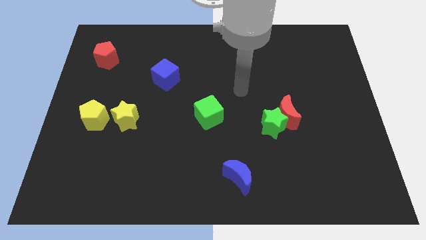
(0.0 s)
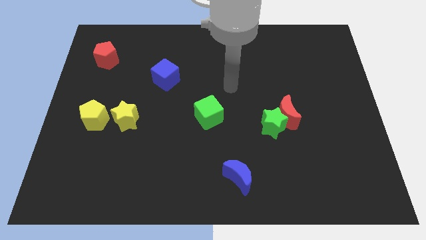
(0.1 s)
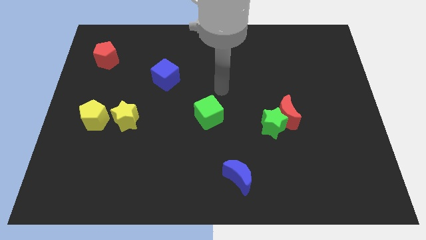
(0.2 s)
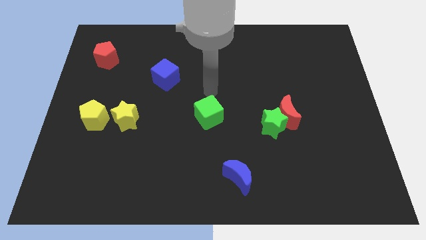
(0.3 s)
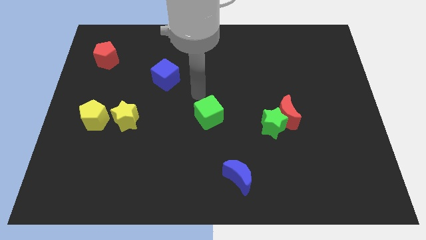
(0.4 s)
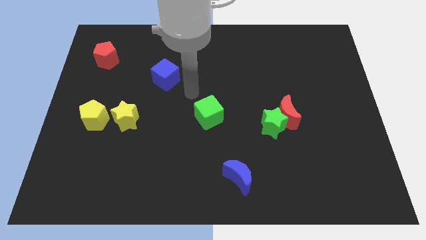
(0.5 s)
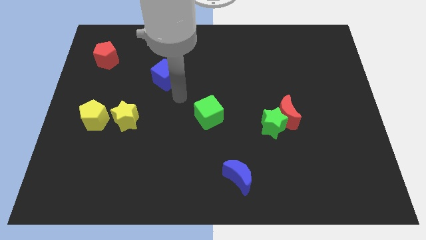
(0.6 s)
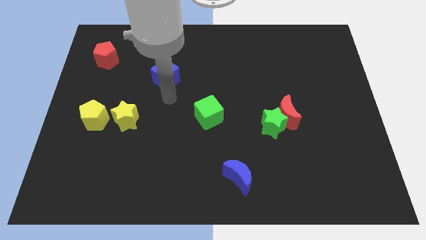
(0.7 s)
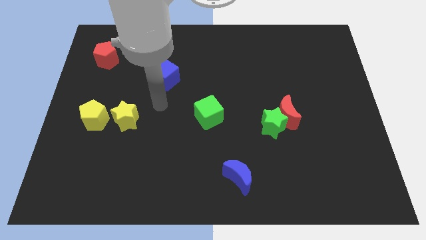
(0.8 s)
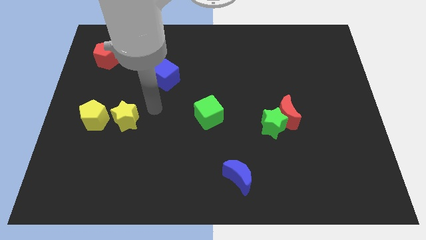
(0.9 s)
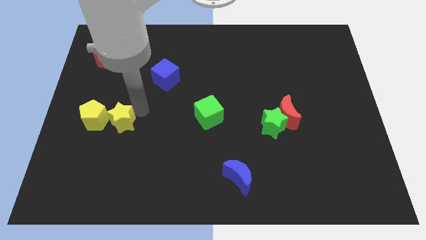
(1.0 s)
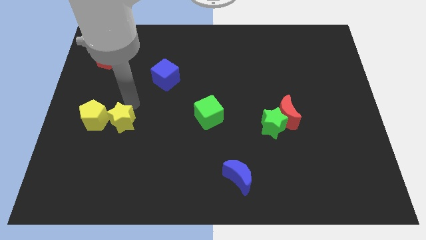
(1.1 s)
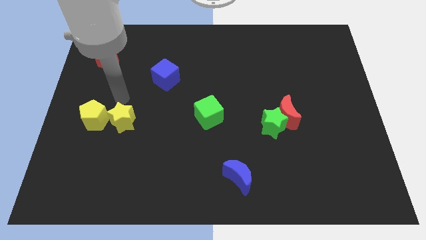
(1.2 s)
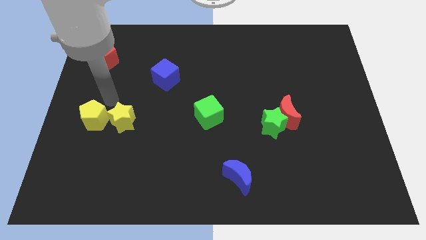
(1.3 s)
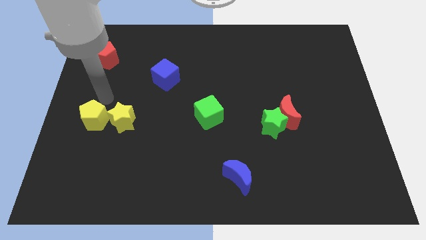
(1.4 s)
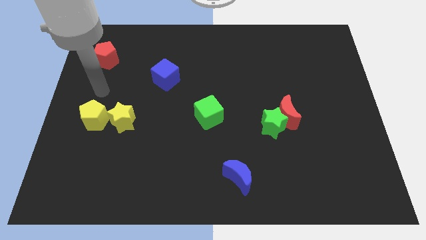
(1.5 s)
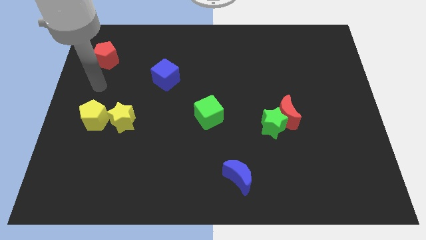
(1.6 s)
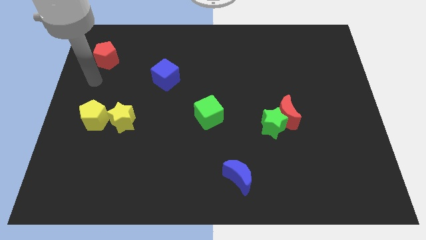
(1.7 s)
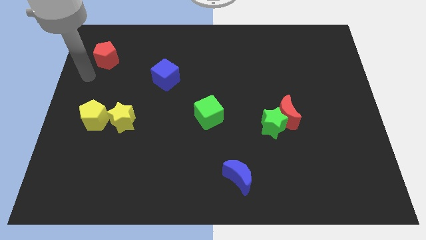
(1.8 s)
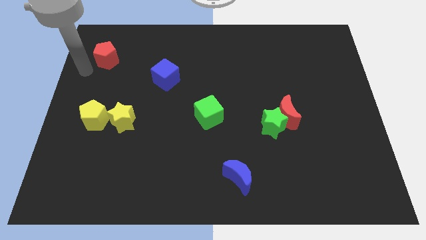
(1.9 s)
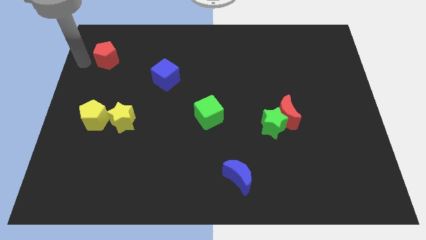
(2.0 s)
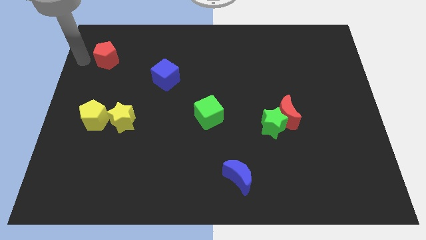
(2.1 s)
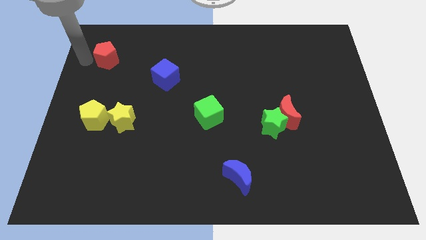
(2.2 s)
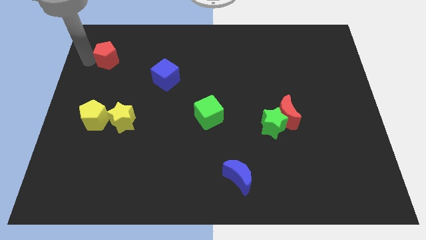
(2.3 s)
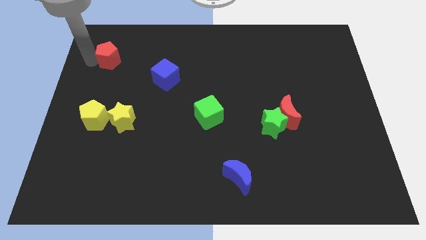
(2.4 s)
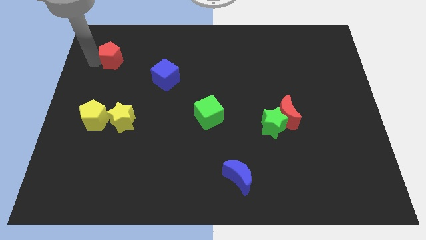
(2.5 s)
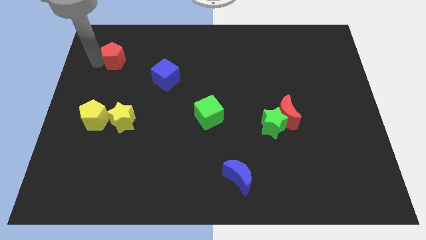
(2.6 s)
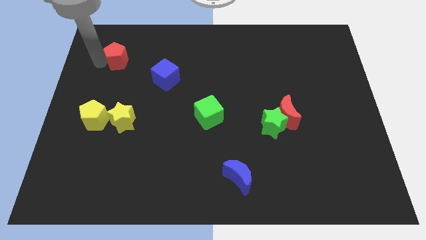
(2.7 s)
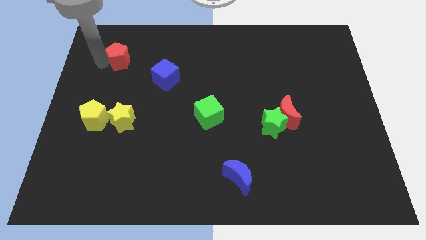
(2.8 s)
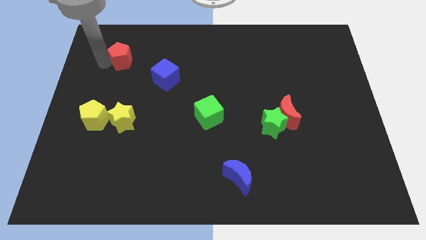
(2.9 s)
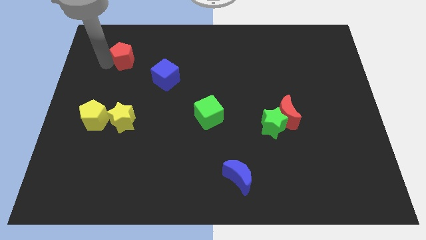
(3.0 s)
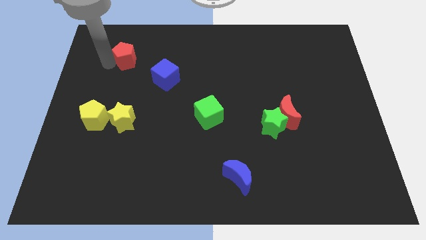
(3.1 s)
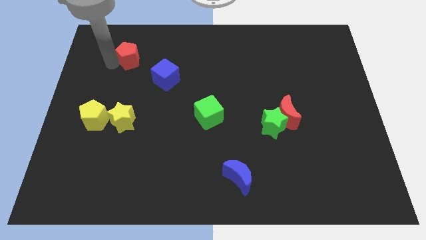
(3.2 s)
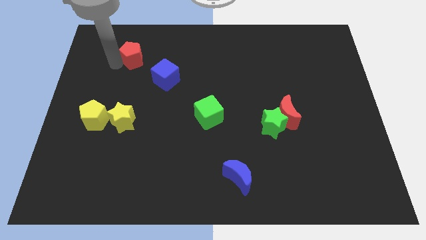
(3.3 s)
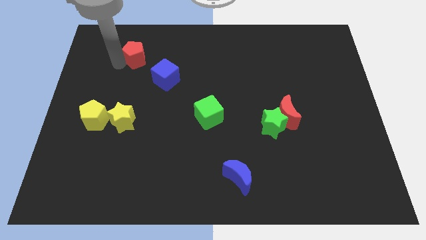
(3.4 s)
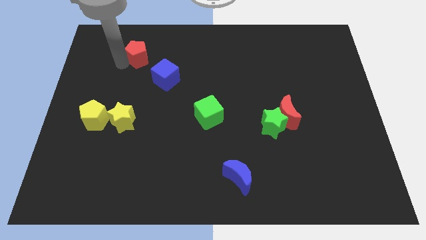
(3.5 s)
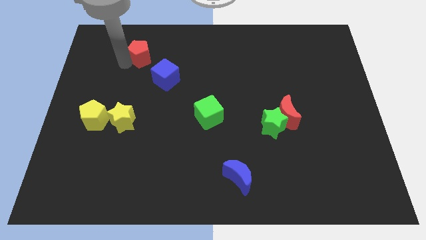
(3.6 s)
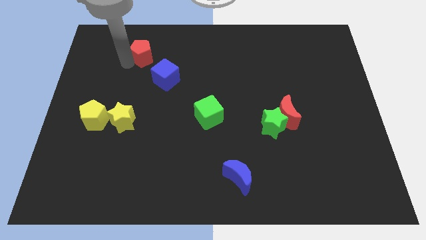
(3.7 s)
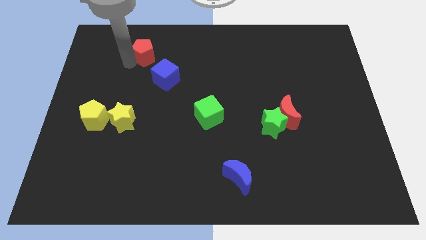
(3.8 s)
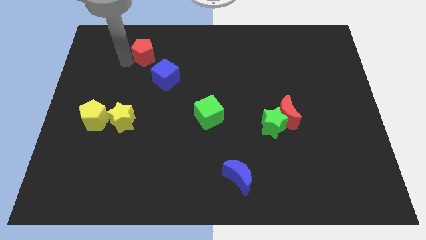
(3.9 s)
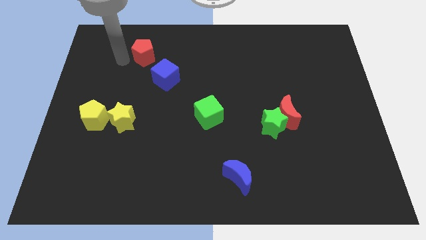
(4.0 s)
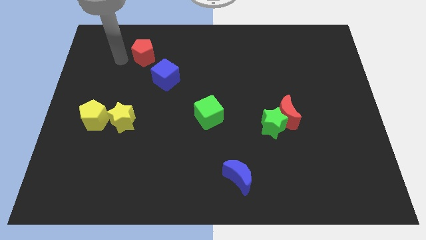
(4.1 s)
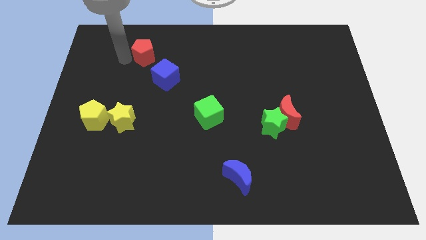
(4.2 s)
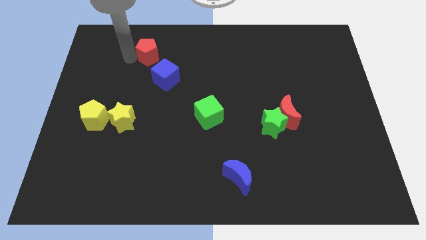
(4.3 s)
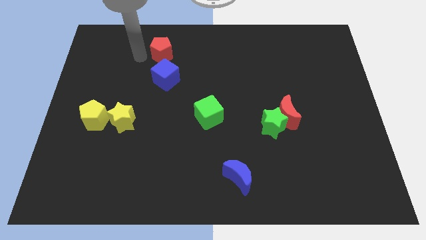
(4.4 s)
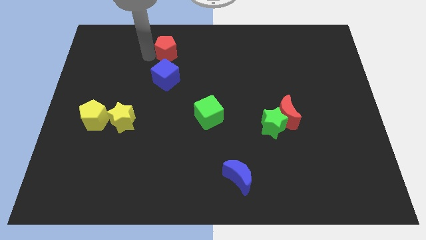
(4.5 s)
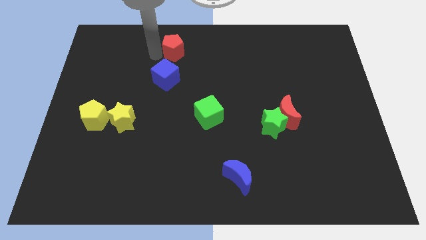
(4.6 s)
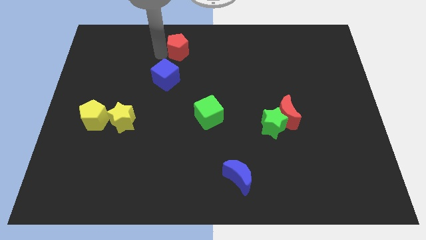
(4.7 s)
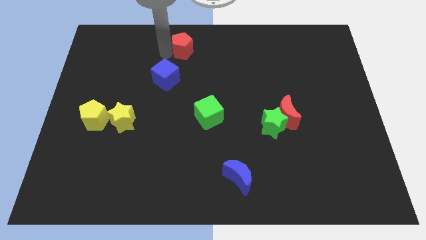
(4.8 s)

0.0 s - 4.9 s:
move the red pentagon to the towards your base

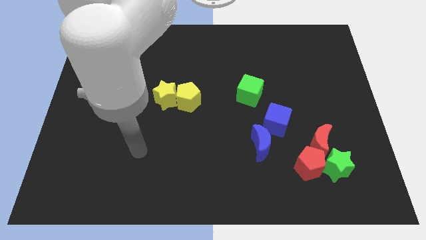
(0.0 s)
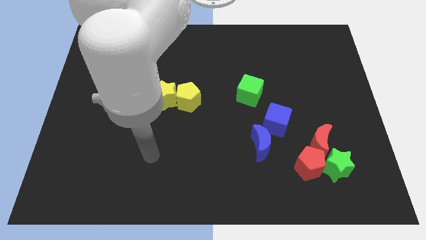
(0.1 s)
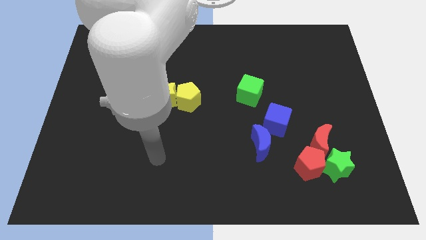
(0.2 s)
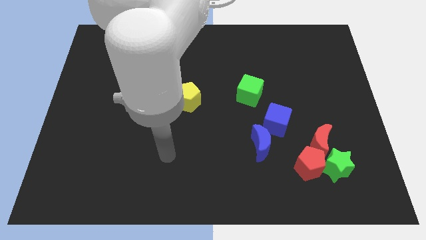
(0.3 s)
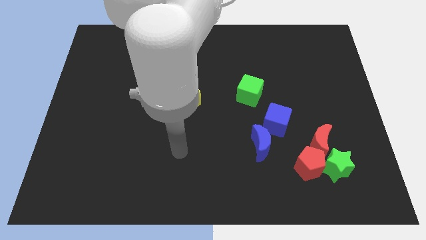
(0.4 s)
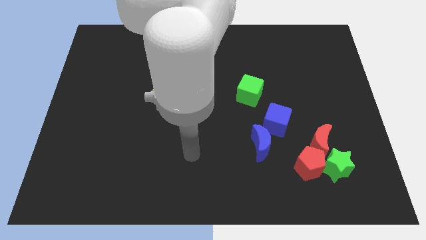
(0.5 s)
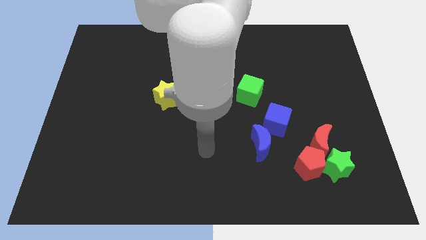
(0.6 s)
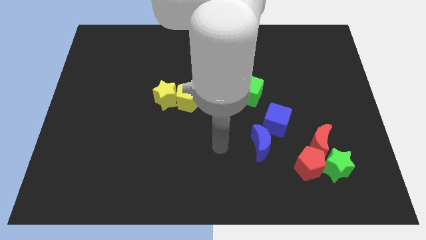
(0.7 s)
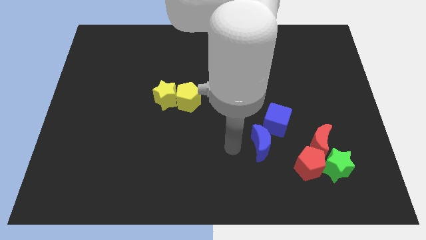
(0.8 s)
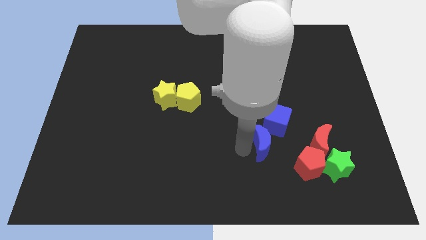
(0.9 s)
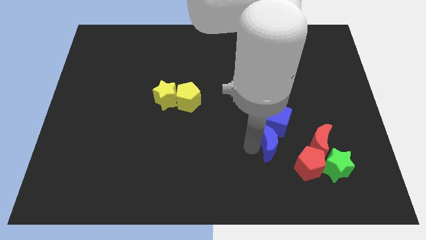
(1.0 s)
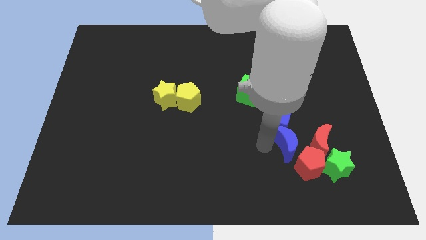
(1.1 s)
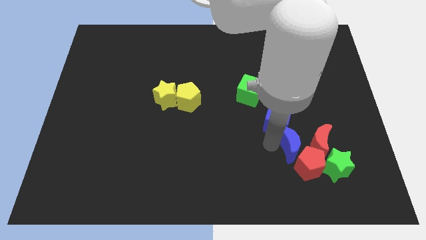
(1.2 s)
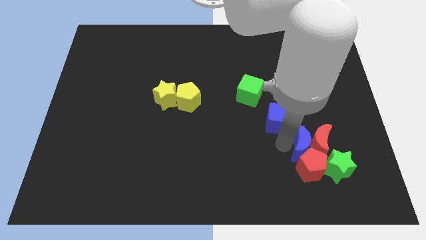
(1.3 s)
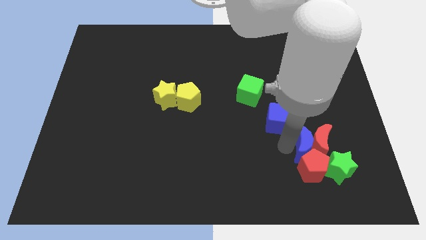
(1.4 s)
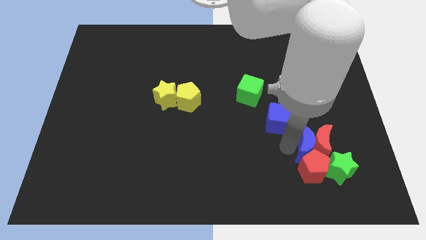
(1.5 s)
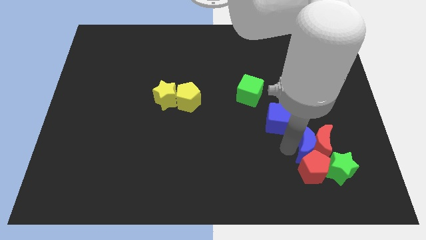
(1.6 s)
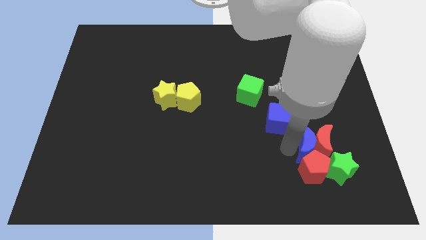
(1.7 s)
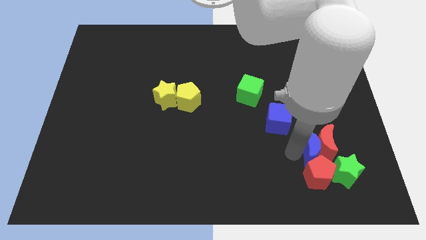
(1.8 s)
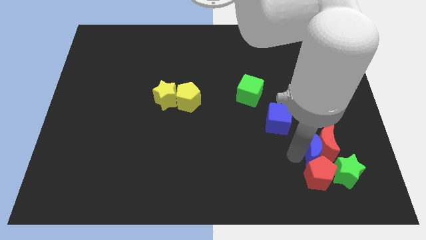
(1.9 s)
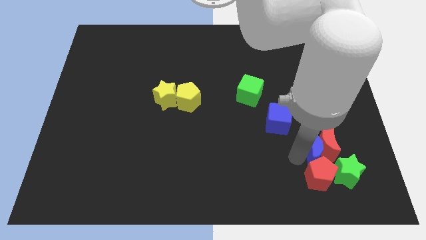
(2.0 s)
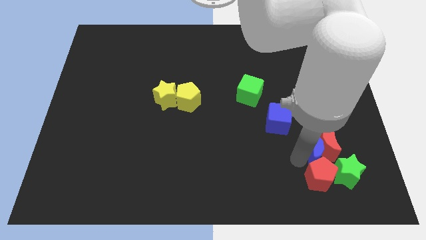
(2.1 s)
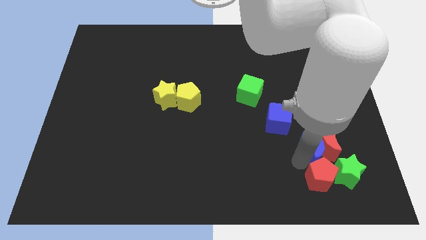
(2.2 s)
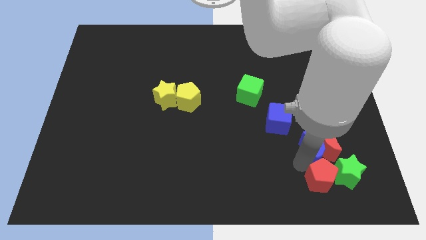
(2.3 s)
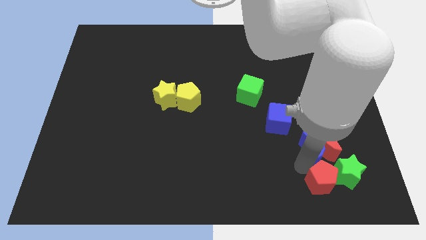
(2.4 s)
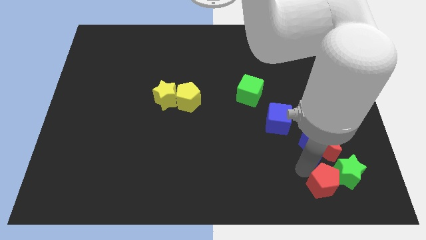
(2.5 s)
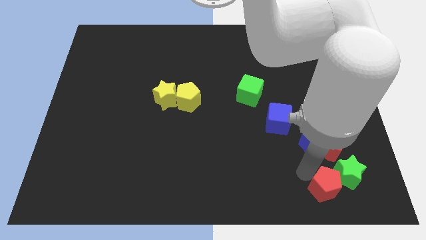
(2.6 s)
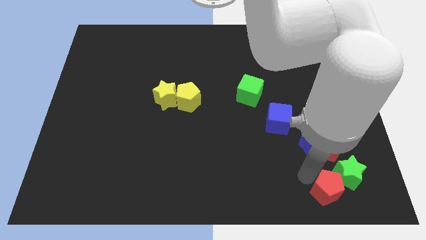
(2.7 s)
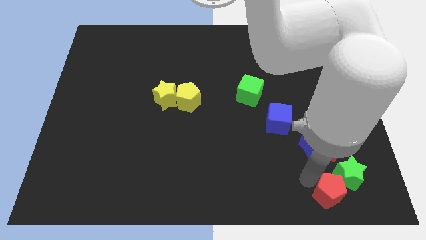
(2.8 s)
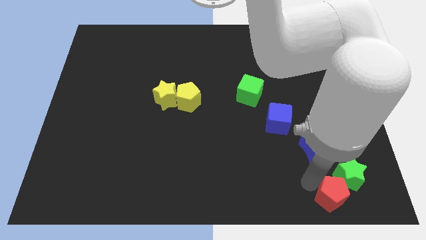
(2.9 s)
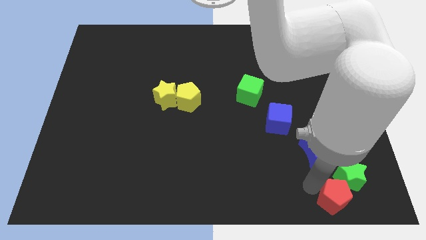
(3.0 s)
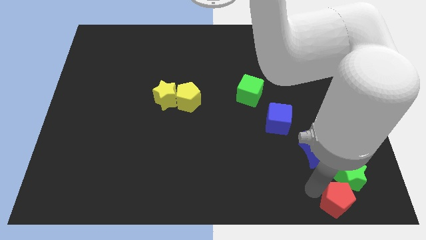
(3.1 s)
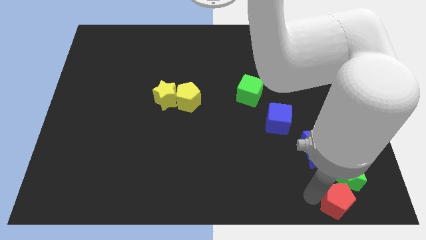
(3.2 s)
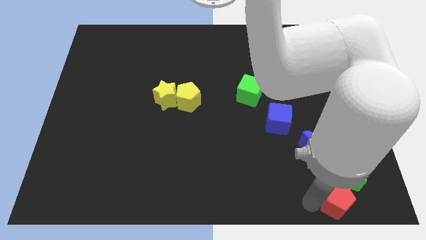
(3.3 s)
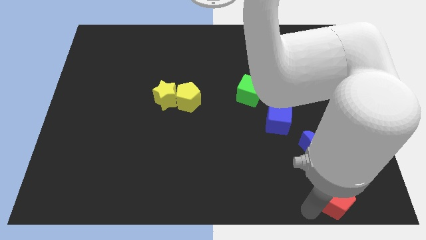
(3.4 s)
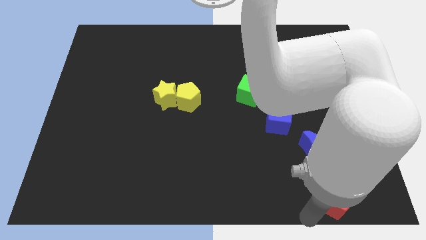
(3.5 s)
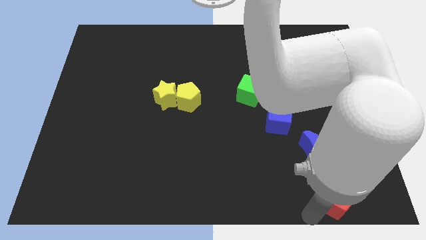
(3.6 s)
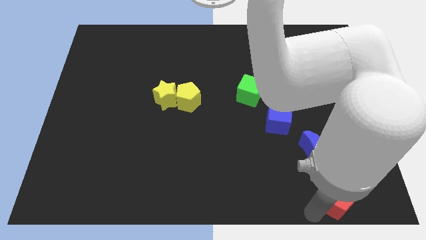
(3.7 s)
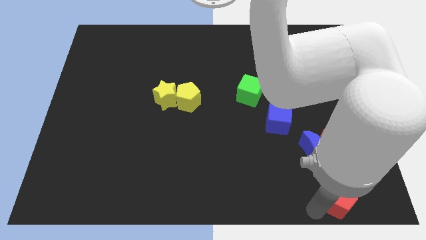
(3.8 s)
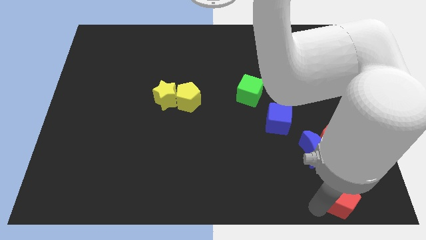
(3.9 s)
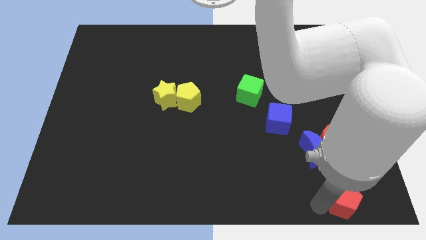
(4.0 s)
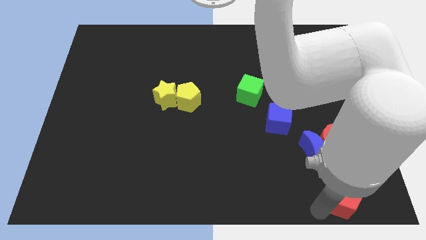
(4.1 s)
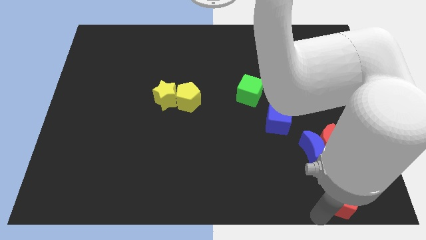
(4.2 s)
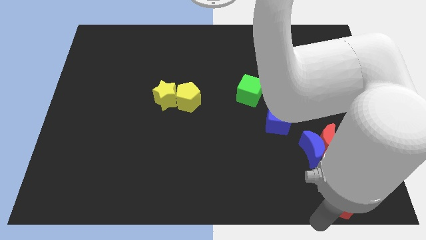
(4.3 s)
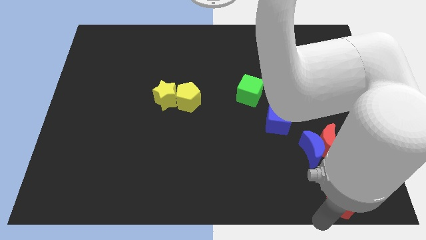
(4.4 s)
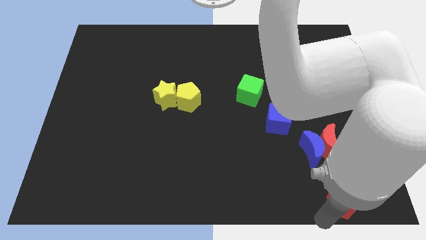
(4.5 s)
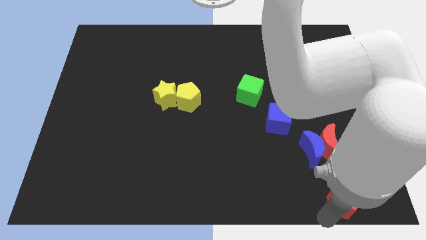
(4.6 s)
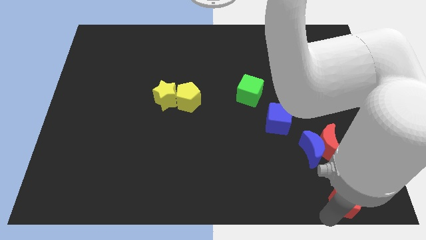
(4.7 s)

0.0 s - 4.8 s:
slide the red pentagon to the bottom right of the board
